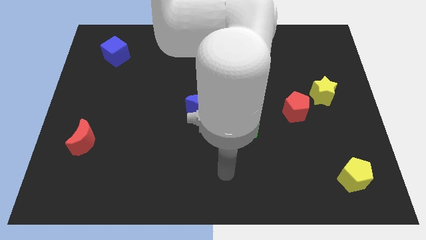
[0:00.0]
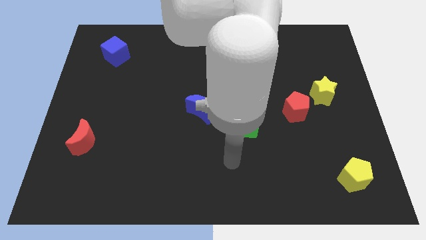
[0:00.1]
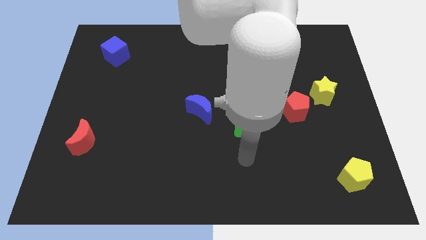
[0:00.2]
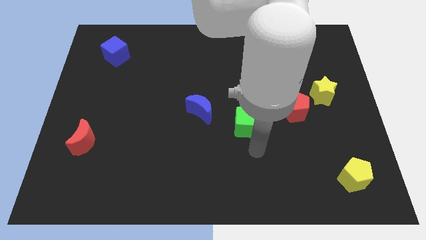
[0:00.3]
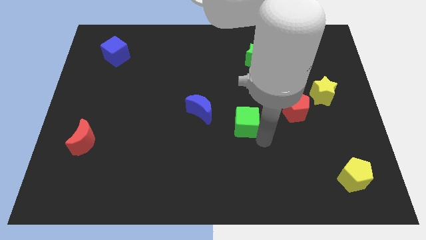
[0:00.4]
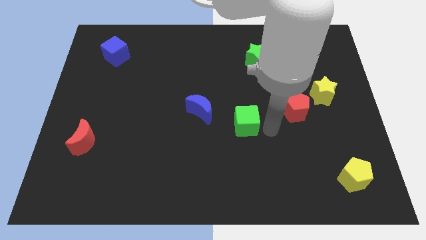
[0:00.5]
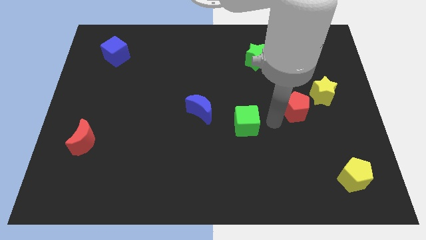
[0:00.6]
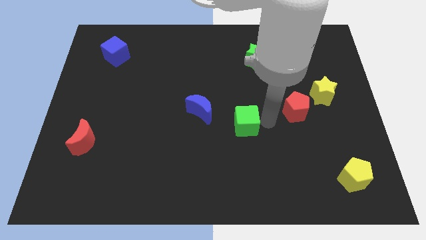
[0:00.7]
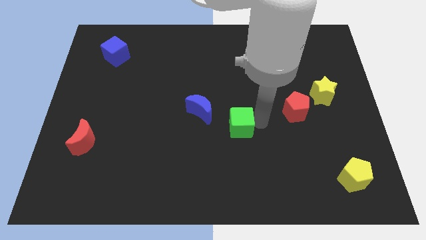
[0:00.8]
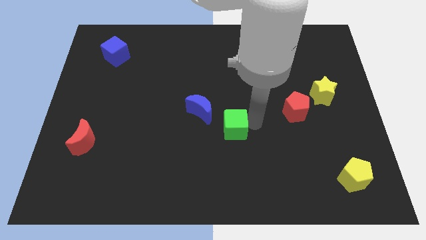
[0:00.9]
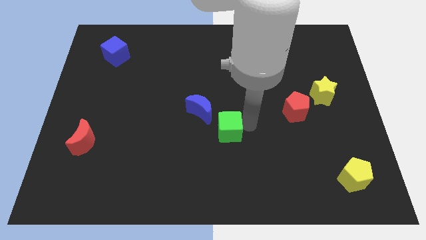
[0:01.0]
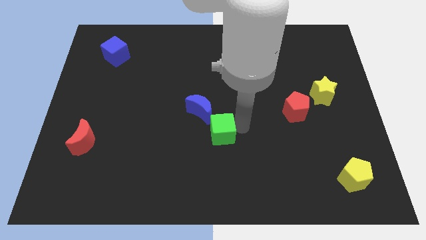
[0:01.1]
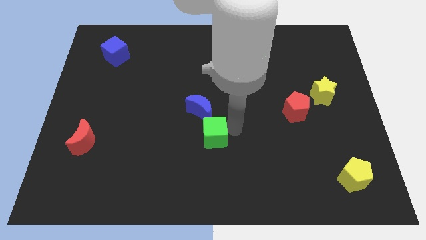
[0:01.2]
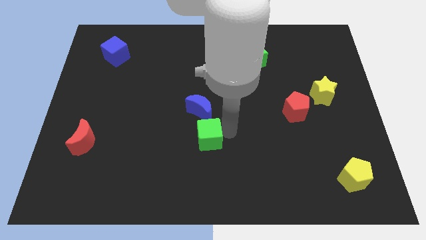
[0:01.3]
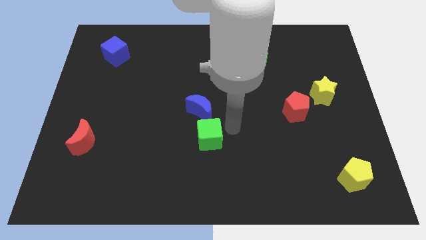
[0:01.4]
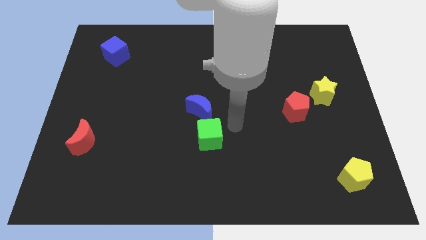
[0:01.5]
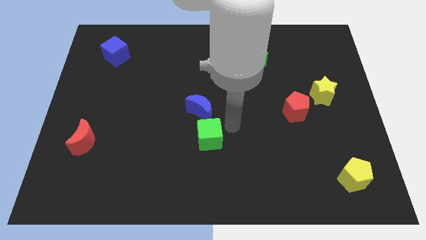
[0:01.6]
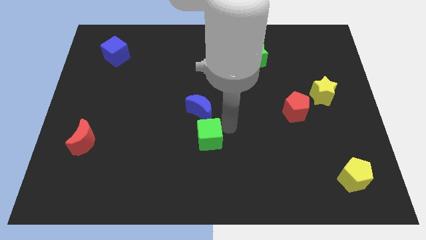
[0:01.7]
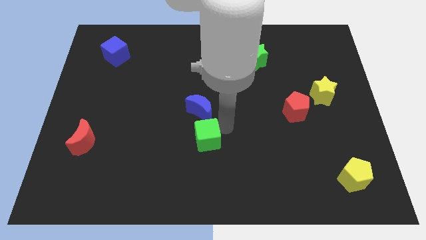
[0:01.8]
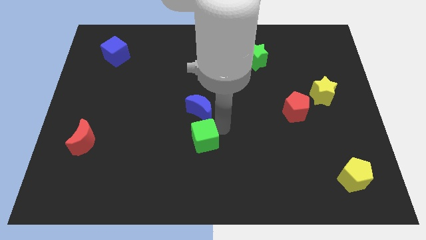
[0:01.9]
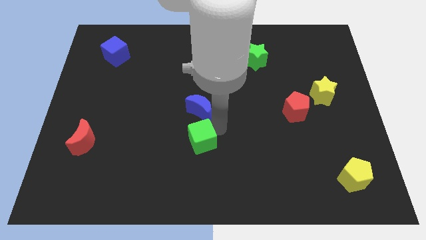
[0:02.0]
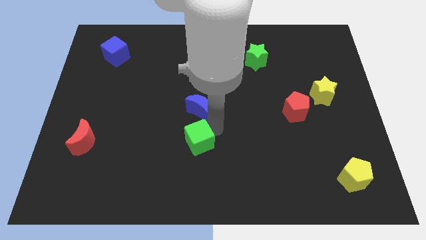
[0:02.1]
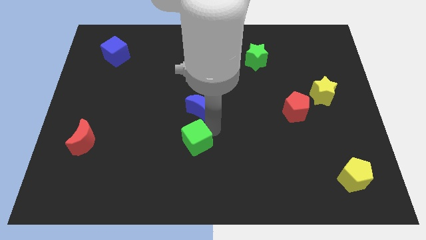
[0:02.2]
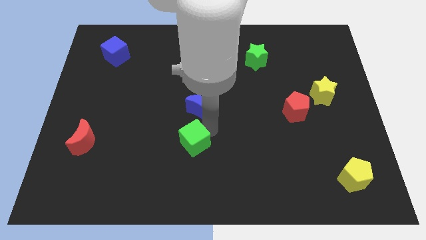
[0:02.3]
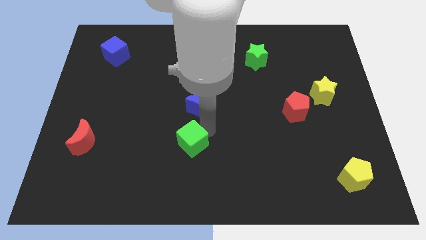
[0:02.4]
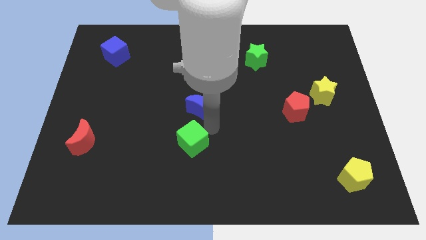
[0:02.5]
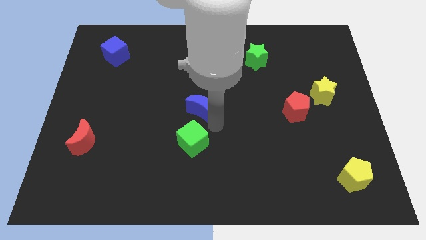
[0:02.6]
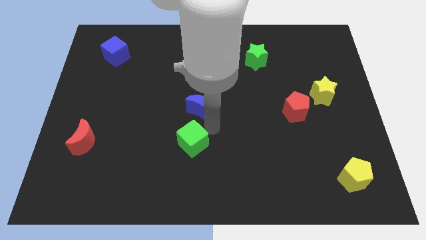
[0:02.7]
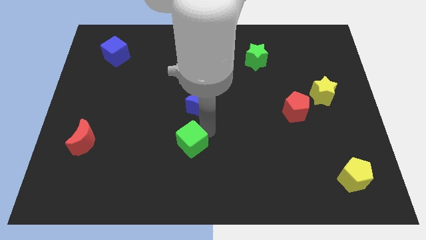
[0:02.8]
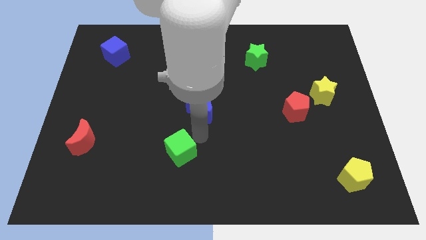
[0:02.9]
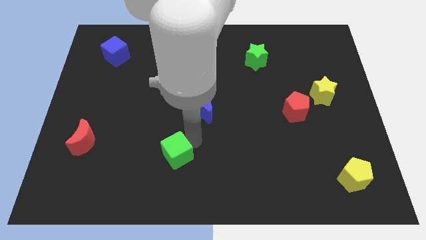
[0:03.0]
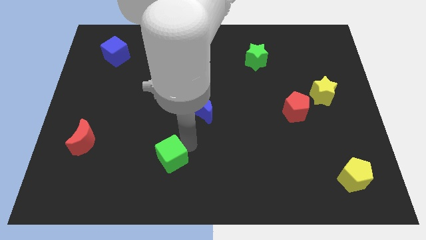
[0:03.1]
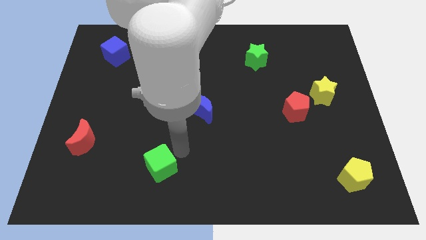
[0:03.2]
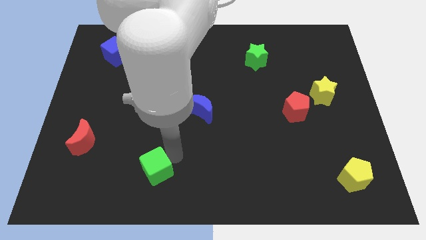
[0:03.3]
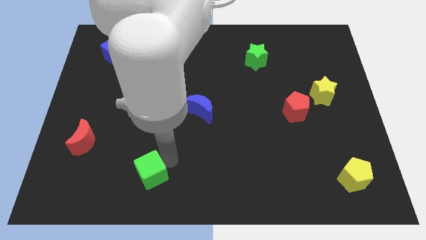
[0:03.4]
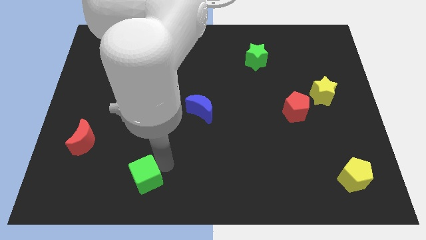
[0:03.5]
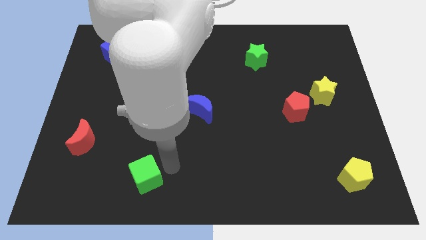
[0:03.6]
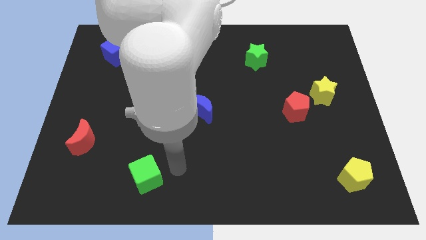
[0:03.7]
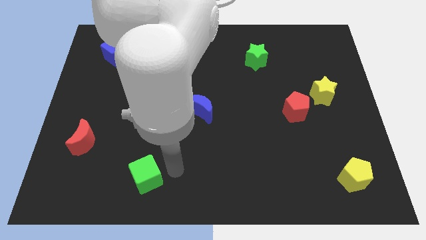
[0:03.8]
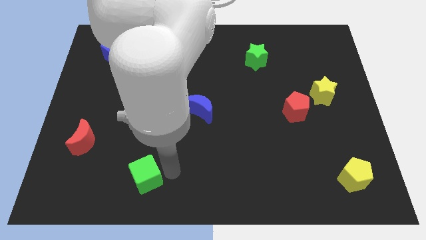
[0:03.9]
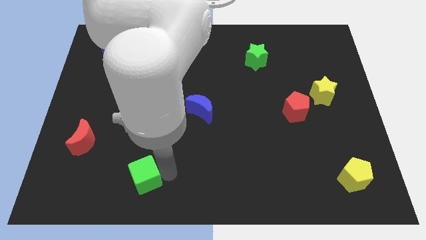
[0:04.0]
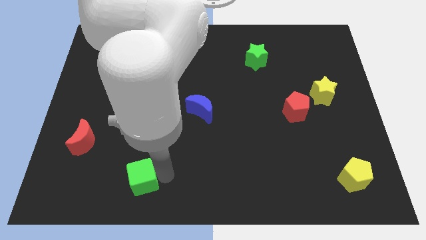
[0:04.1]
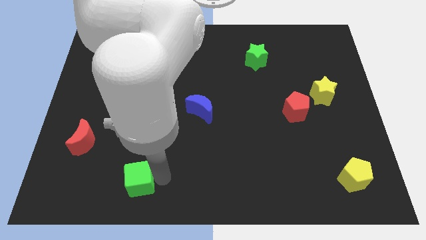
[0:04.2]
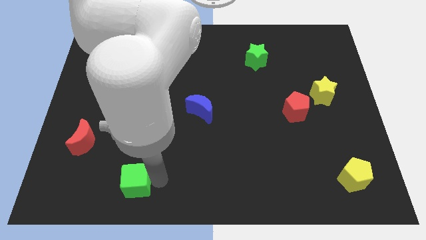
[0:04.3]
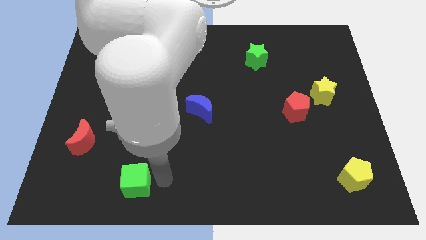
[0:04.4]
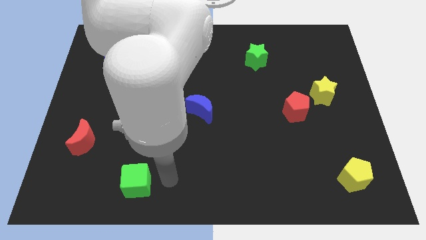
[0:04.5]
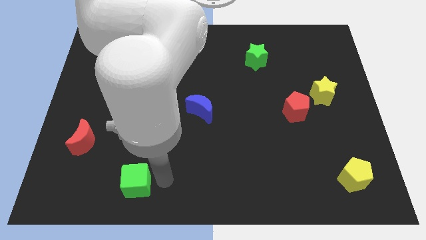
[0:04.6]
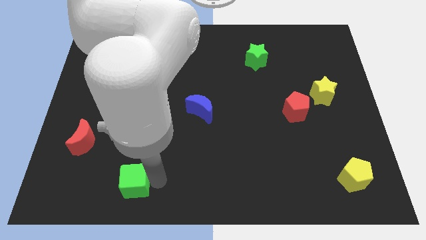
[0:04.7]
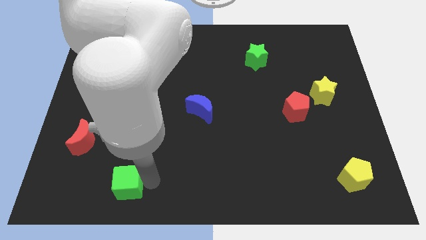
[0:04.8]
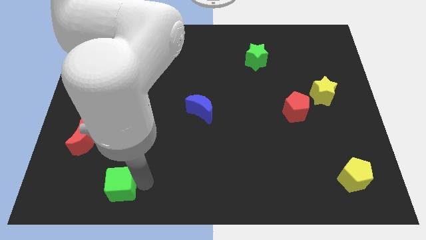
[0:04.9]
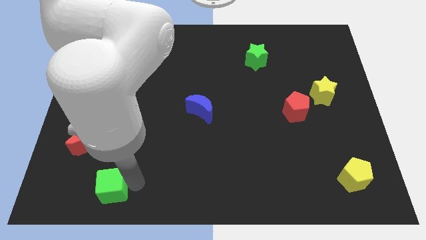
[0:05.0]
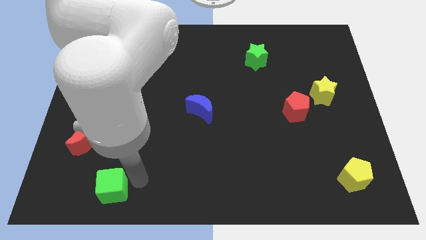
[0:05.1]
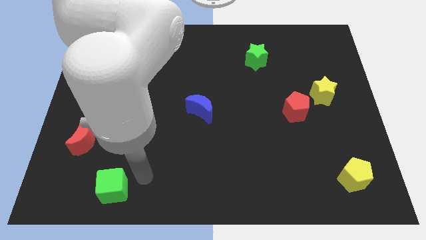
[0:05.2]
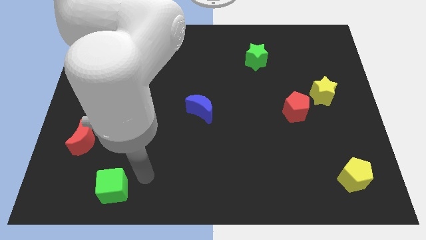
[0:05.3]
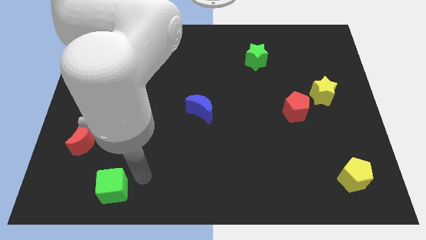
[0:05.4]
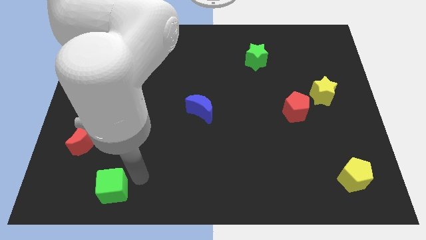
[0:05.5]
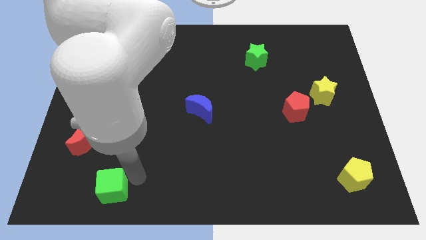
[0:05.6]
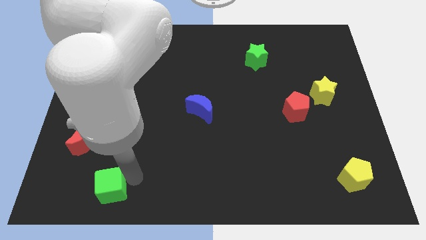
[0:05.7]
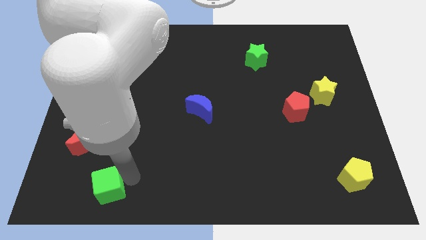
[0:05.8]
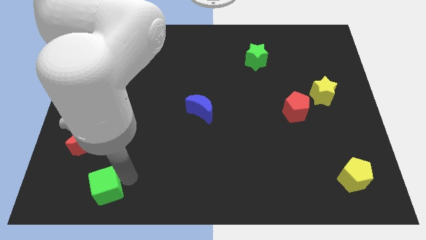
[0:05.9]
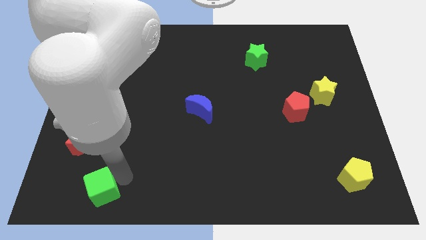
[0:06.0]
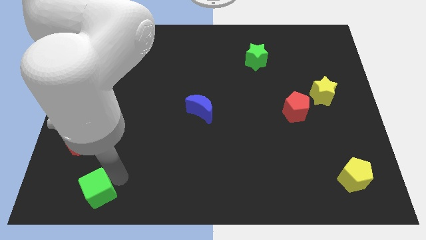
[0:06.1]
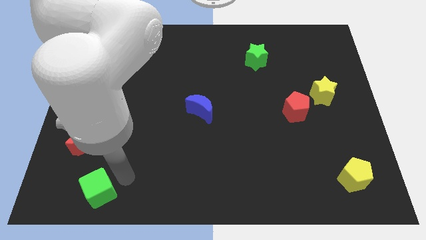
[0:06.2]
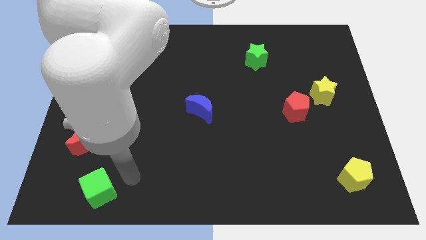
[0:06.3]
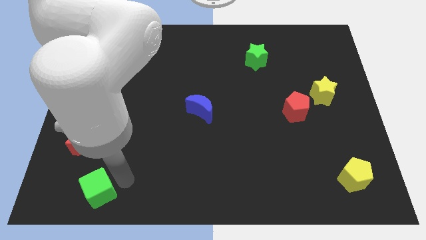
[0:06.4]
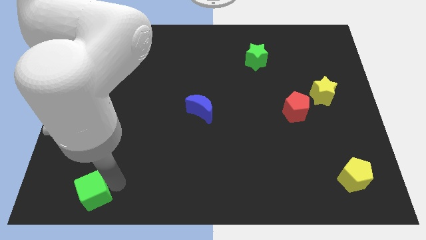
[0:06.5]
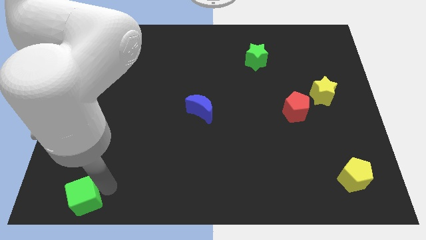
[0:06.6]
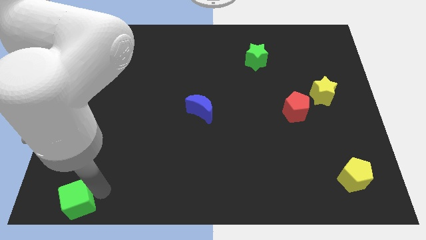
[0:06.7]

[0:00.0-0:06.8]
move the green cube to the lower left corner
